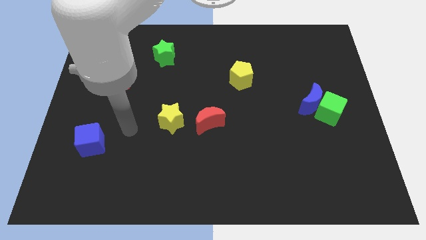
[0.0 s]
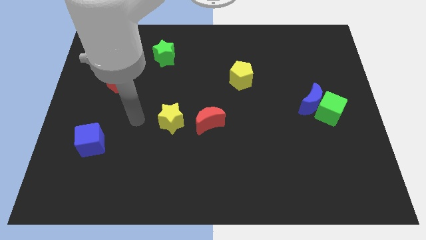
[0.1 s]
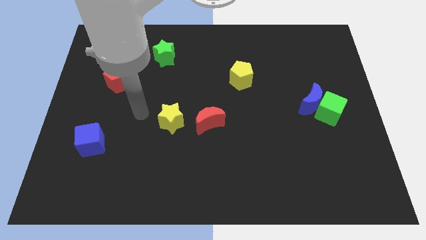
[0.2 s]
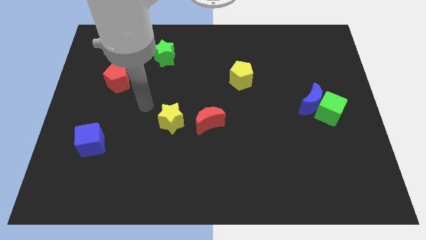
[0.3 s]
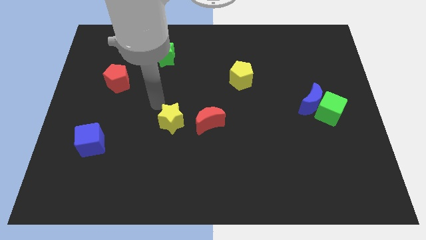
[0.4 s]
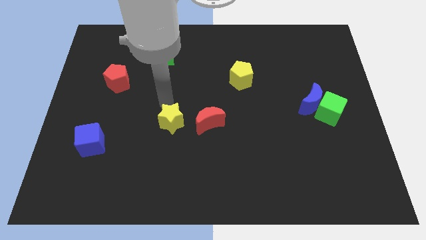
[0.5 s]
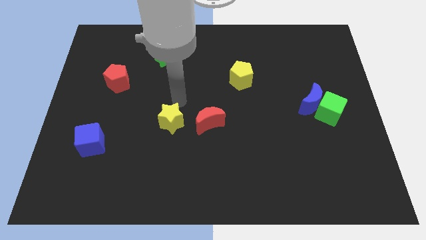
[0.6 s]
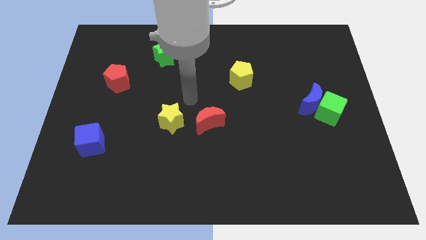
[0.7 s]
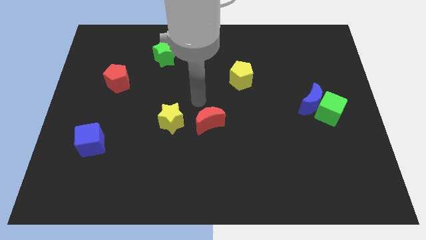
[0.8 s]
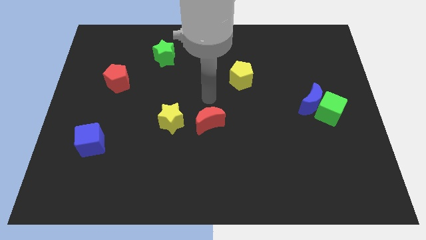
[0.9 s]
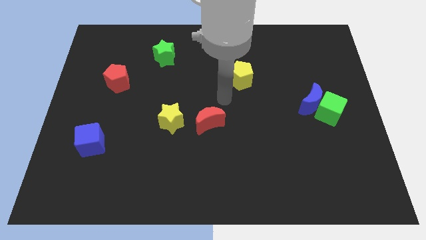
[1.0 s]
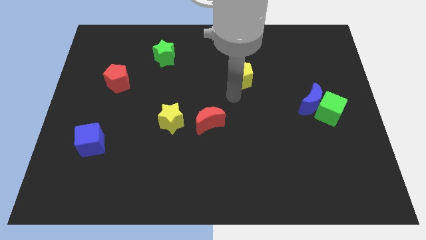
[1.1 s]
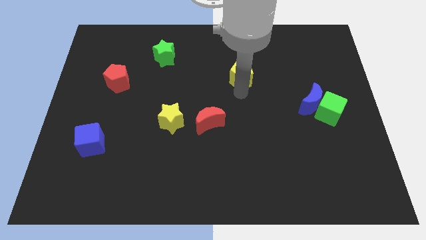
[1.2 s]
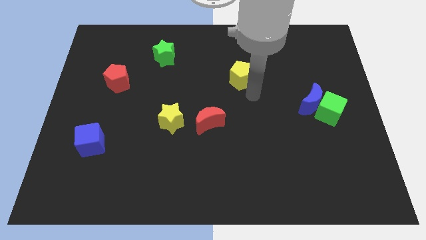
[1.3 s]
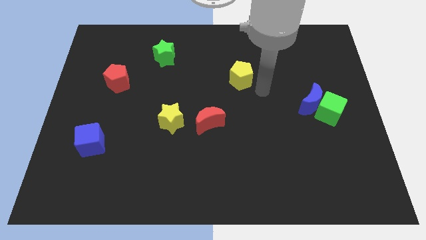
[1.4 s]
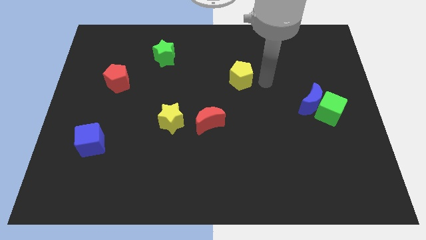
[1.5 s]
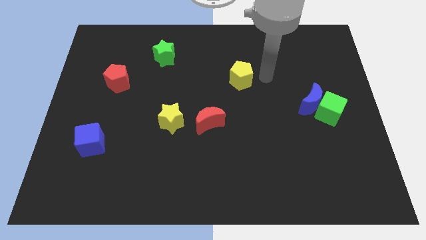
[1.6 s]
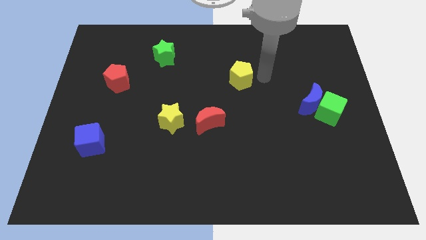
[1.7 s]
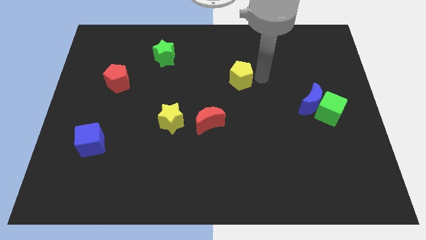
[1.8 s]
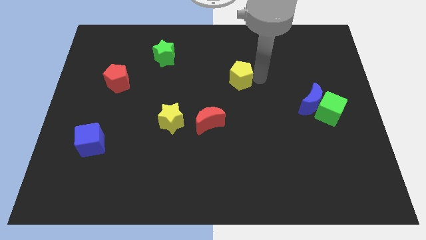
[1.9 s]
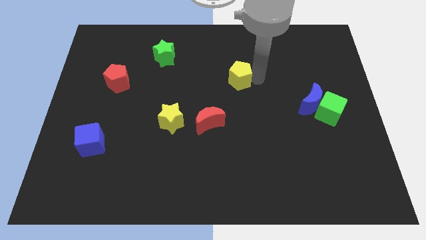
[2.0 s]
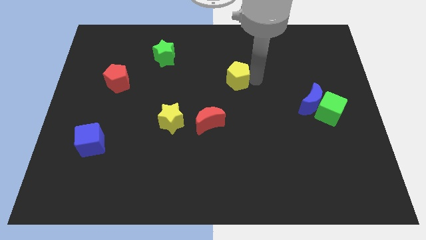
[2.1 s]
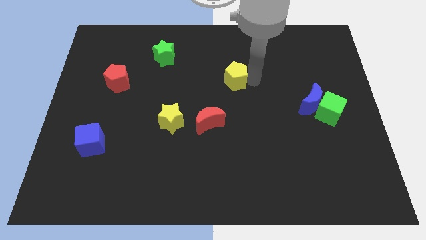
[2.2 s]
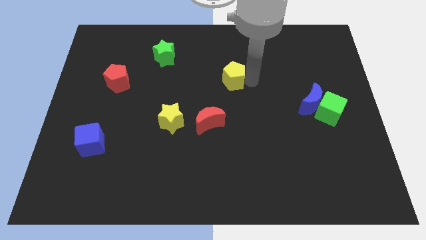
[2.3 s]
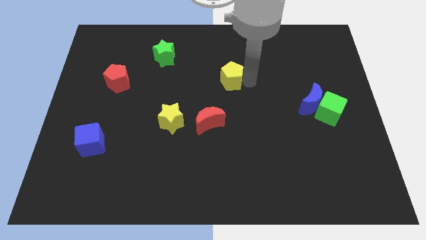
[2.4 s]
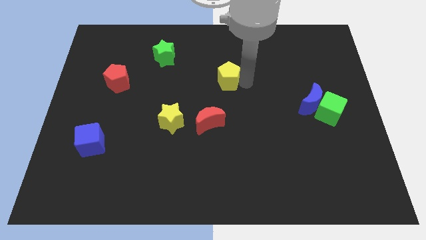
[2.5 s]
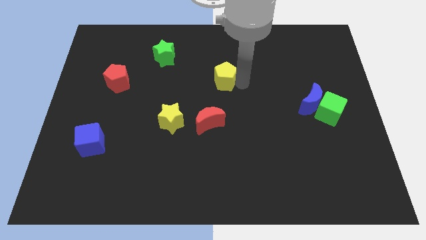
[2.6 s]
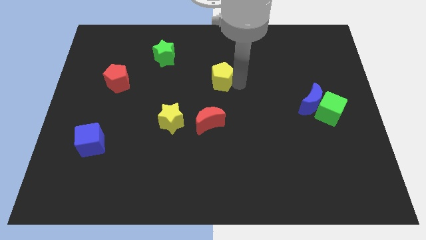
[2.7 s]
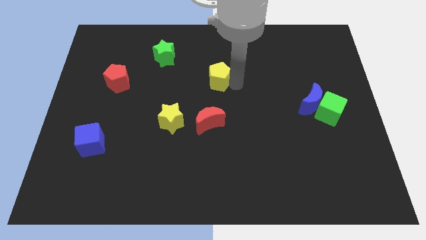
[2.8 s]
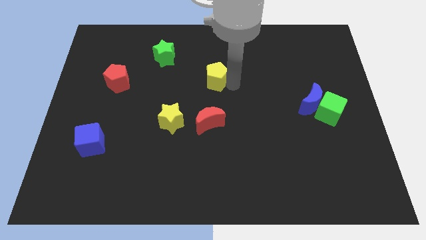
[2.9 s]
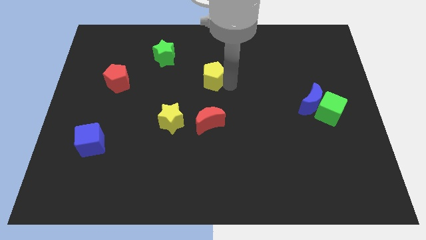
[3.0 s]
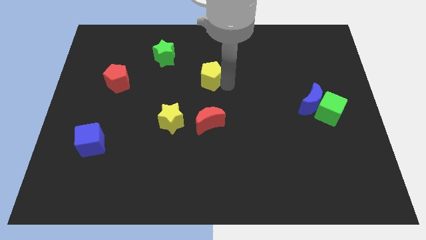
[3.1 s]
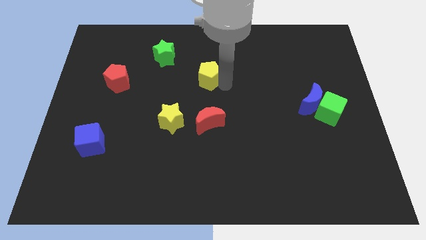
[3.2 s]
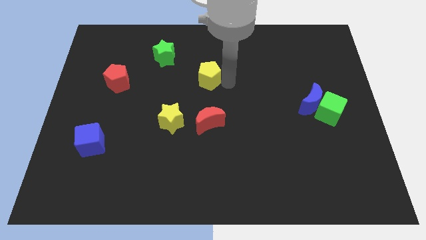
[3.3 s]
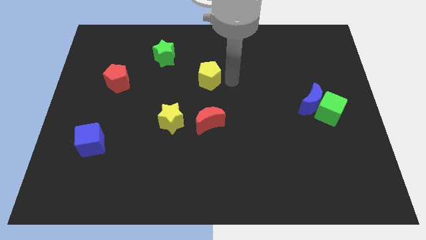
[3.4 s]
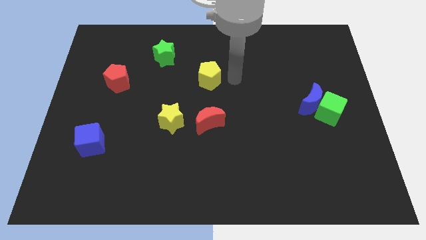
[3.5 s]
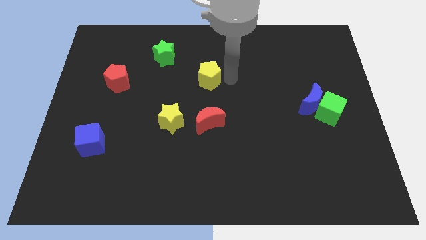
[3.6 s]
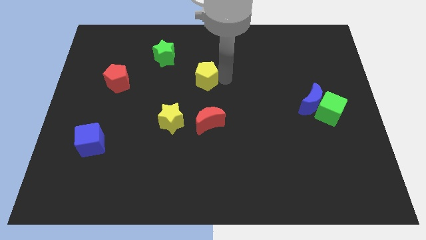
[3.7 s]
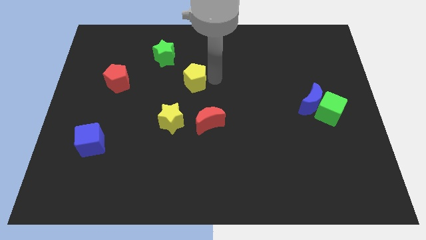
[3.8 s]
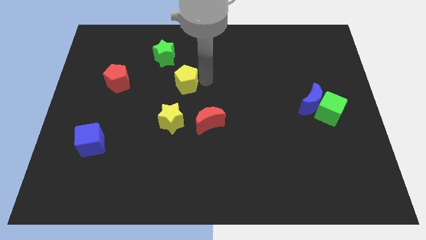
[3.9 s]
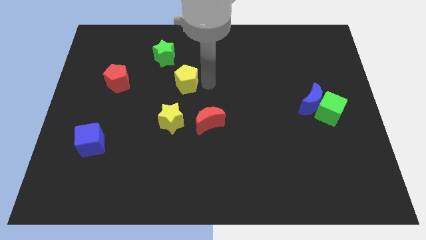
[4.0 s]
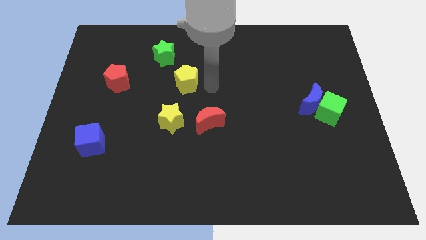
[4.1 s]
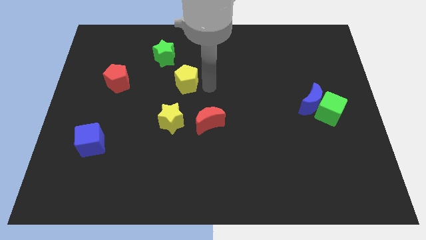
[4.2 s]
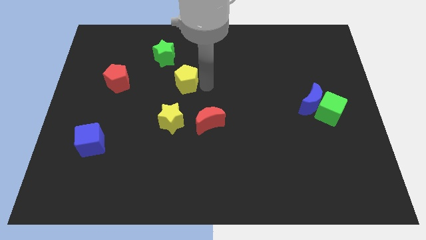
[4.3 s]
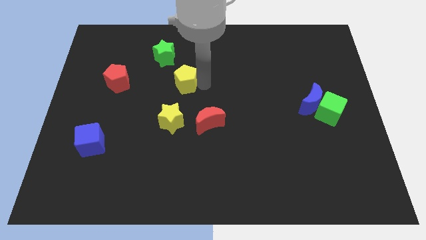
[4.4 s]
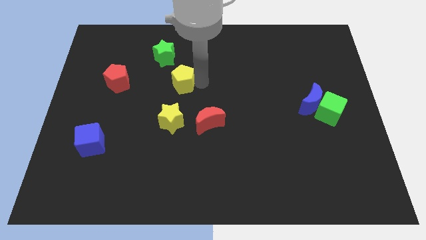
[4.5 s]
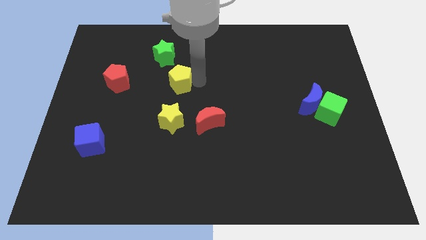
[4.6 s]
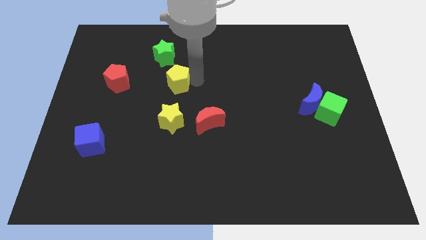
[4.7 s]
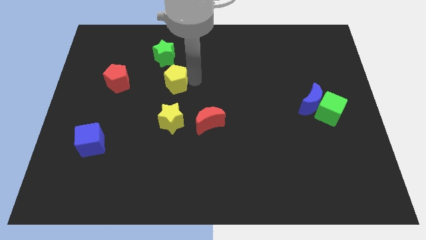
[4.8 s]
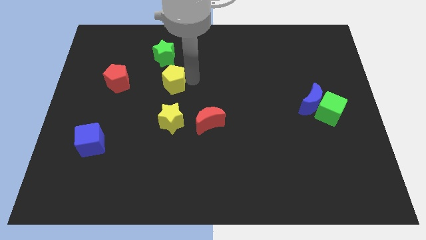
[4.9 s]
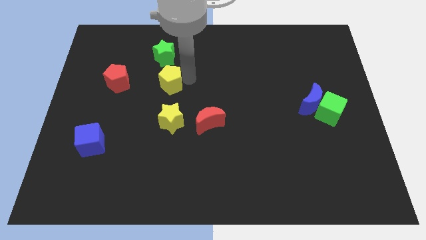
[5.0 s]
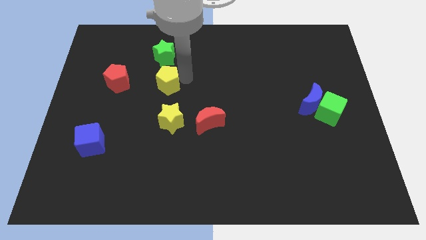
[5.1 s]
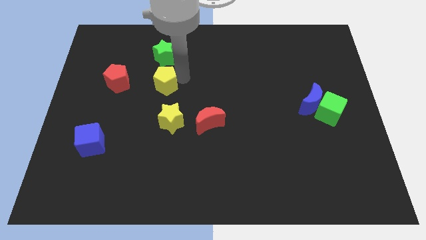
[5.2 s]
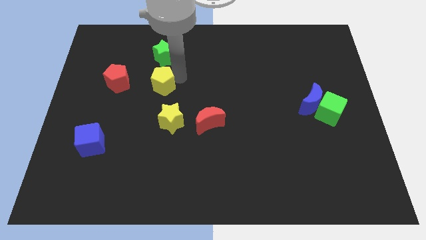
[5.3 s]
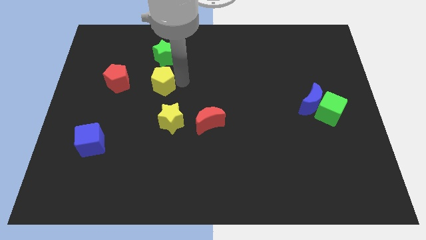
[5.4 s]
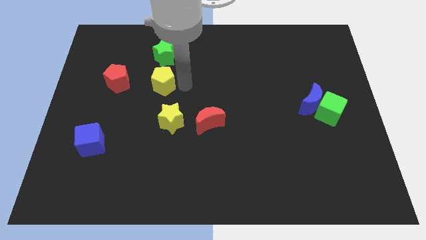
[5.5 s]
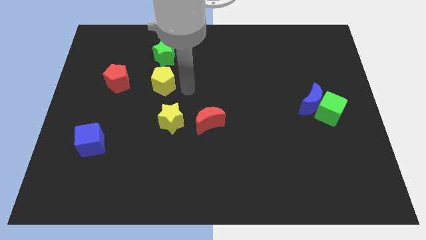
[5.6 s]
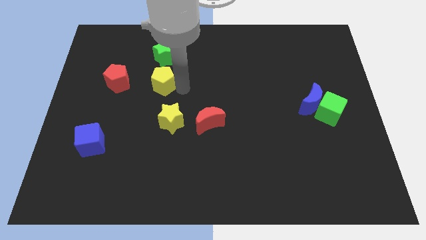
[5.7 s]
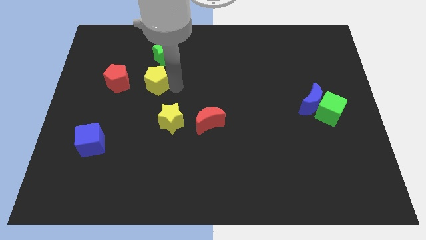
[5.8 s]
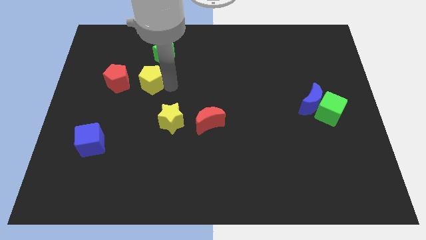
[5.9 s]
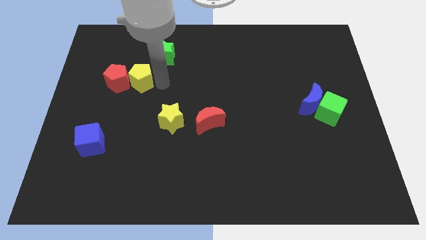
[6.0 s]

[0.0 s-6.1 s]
push the yellow pentagon to the red pentagon

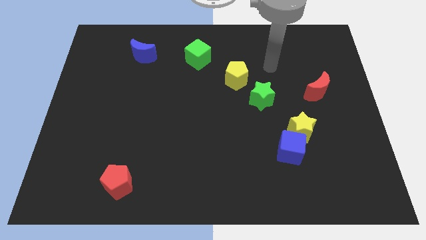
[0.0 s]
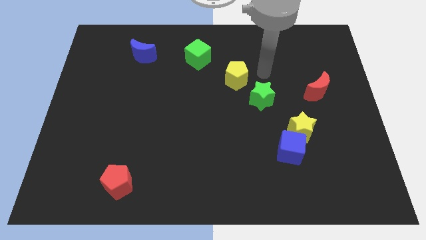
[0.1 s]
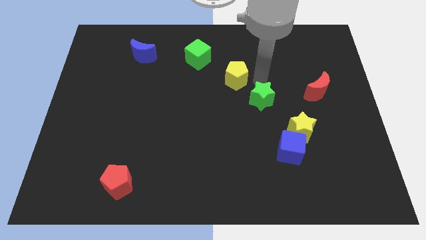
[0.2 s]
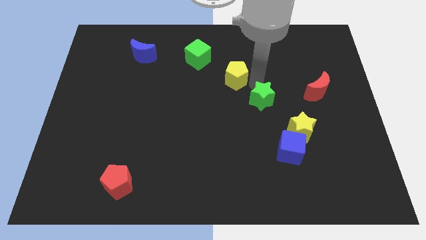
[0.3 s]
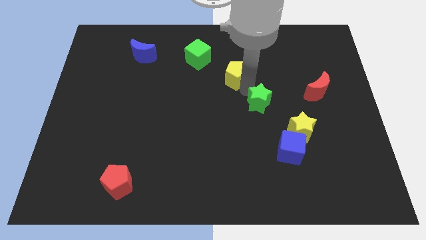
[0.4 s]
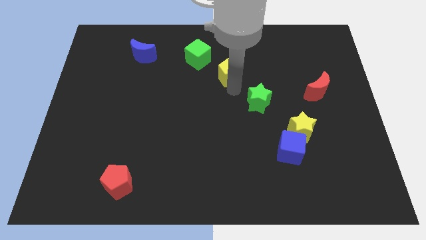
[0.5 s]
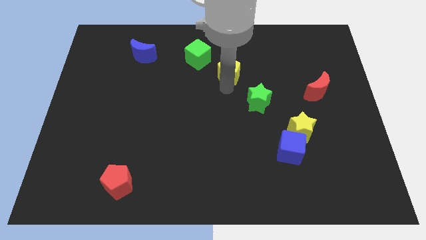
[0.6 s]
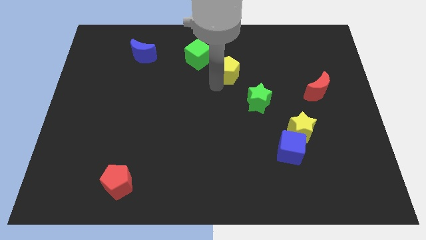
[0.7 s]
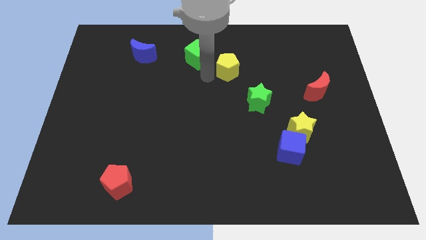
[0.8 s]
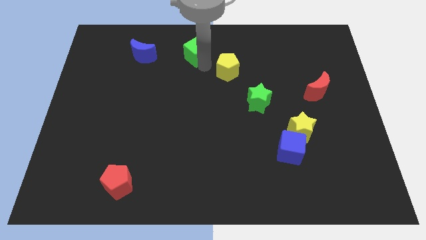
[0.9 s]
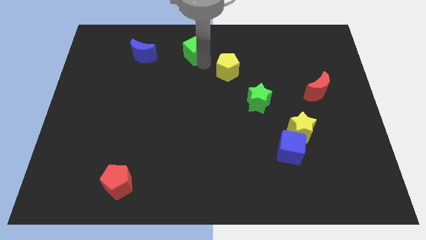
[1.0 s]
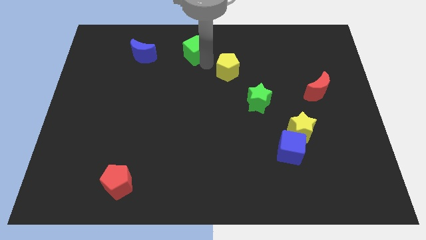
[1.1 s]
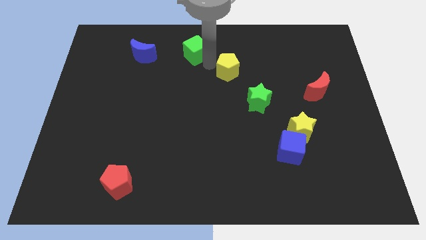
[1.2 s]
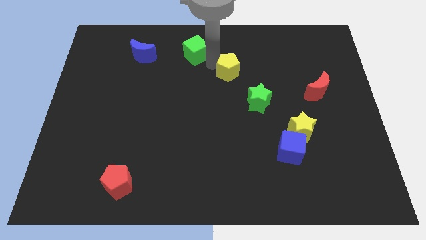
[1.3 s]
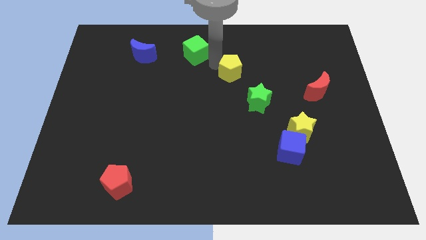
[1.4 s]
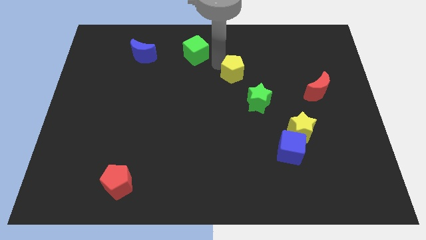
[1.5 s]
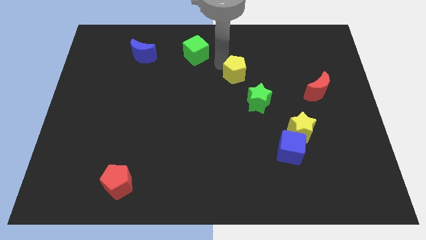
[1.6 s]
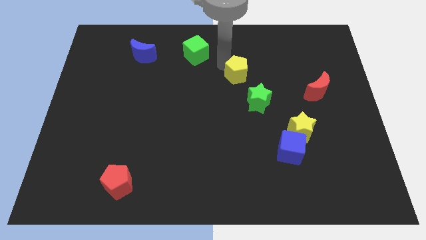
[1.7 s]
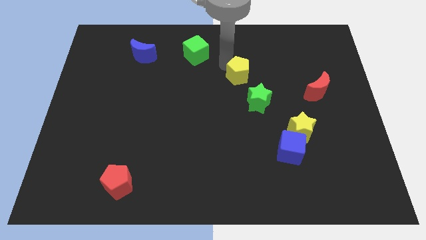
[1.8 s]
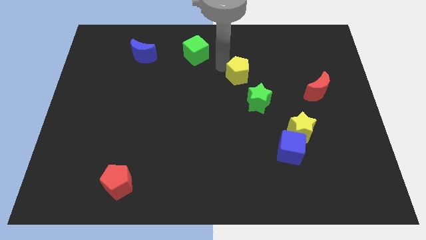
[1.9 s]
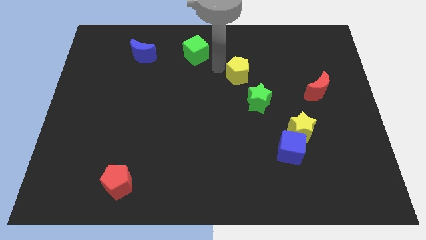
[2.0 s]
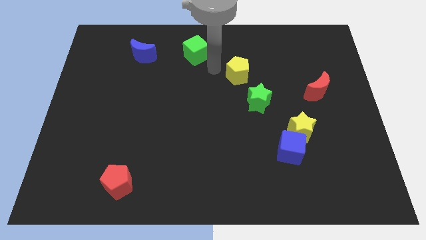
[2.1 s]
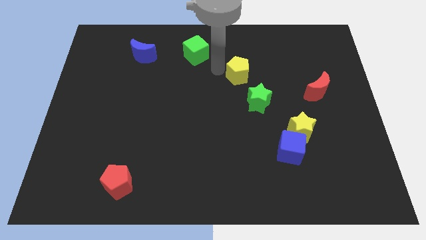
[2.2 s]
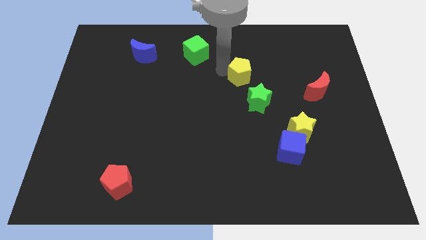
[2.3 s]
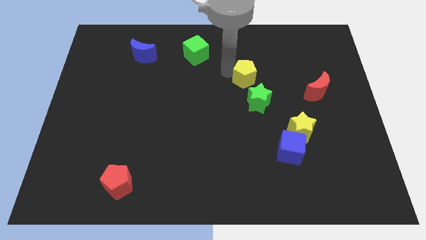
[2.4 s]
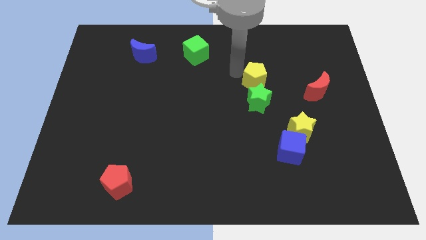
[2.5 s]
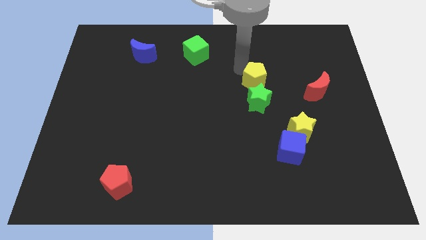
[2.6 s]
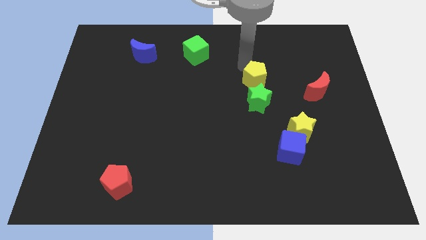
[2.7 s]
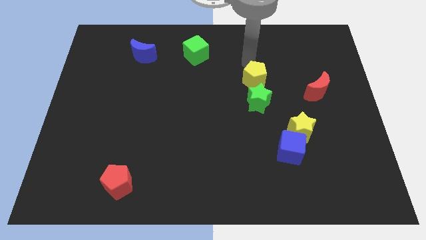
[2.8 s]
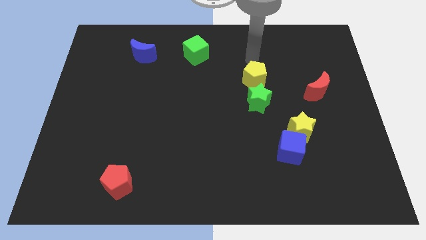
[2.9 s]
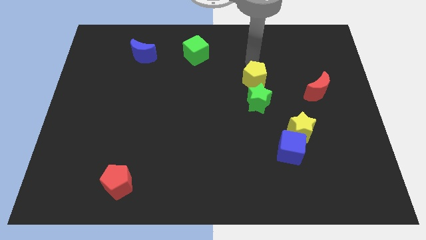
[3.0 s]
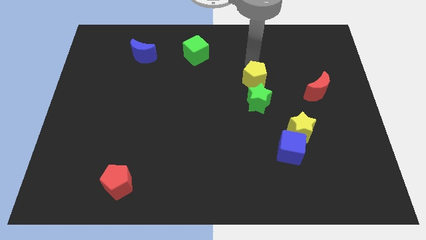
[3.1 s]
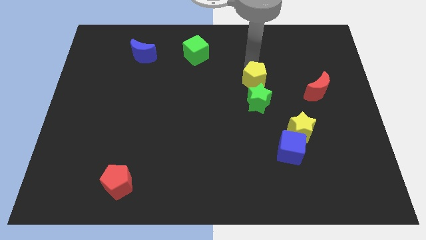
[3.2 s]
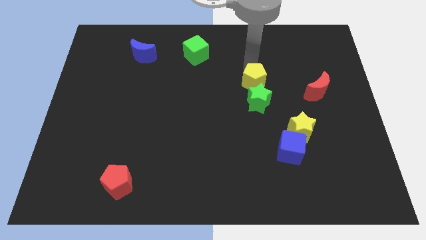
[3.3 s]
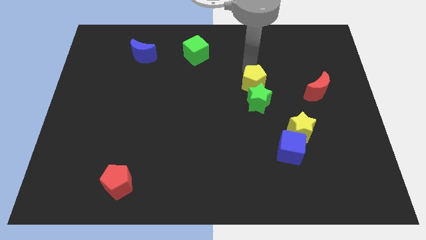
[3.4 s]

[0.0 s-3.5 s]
move the yellow pentagon next to the green star
